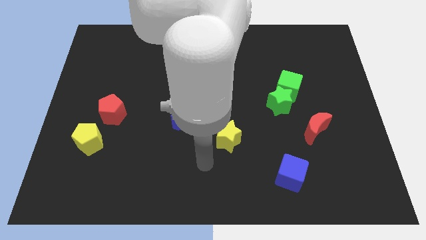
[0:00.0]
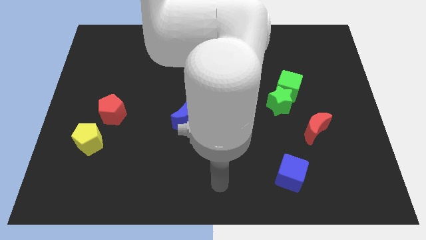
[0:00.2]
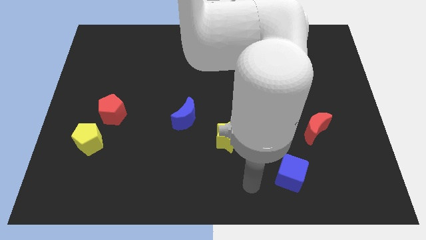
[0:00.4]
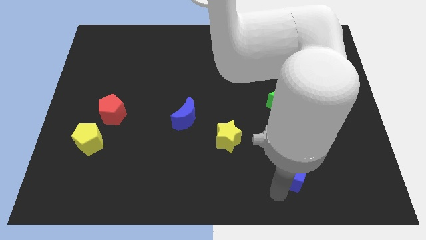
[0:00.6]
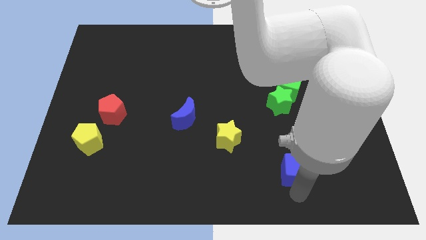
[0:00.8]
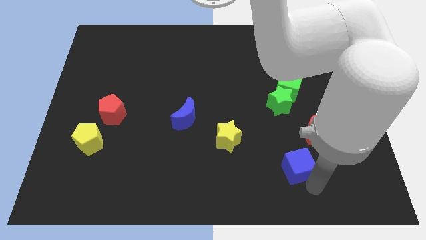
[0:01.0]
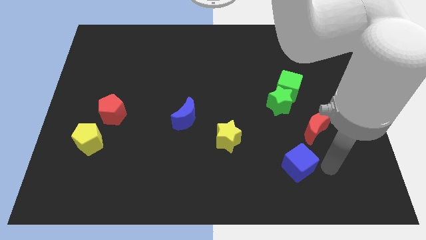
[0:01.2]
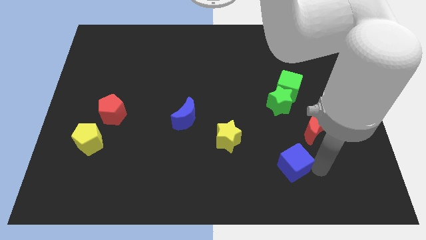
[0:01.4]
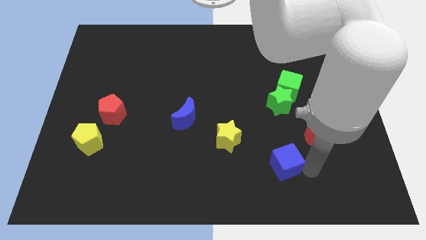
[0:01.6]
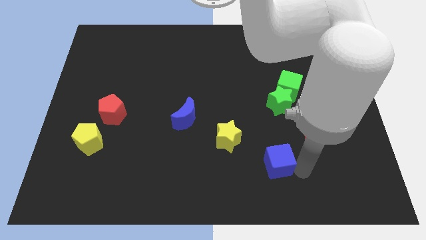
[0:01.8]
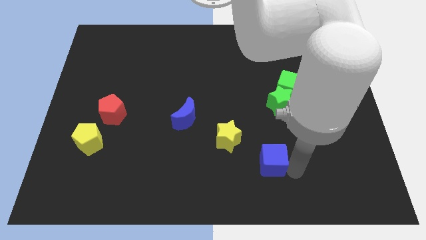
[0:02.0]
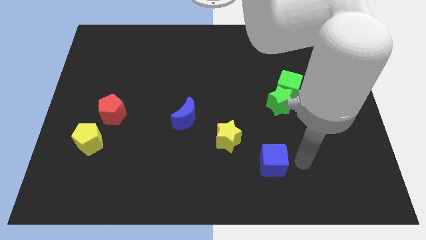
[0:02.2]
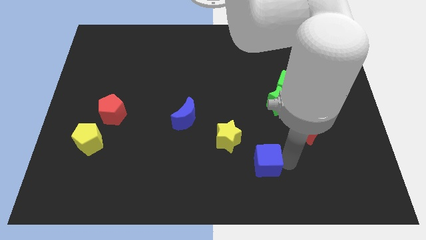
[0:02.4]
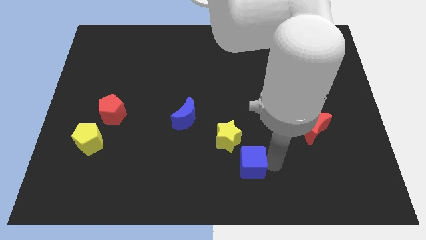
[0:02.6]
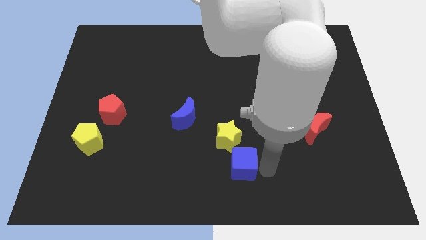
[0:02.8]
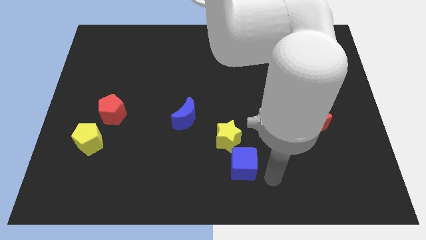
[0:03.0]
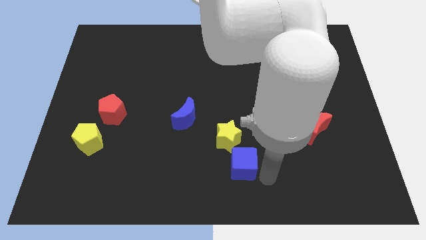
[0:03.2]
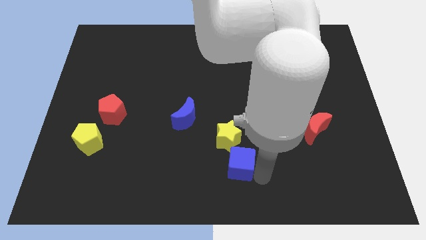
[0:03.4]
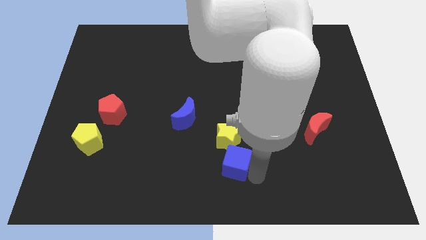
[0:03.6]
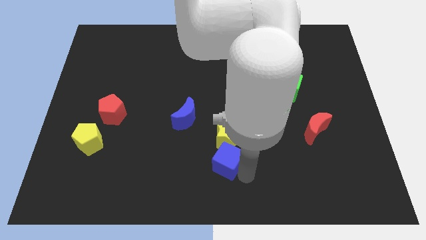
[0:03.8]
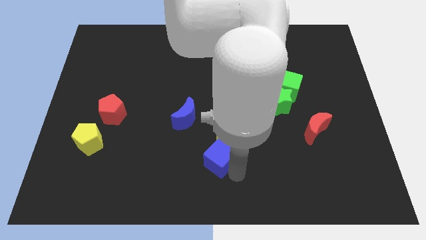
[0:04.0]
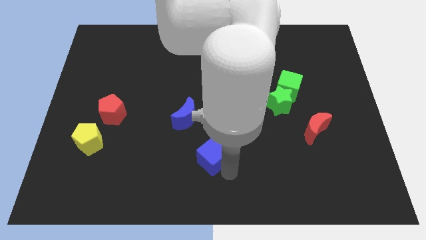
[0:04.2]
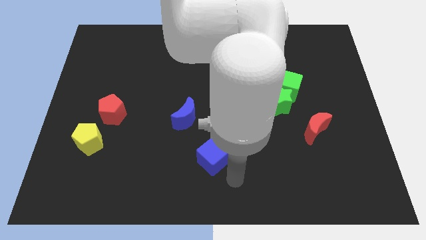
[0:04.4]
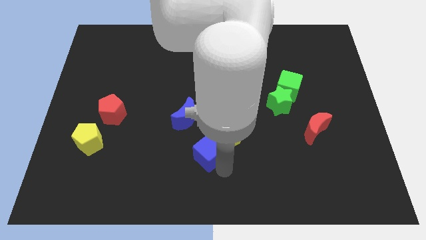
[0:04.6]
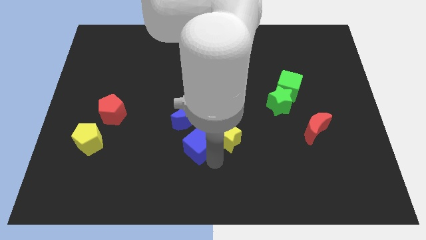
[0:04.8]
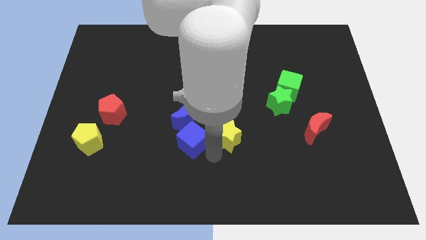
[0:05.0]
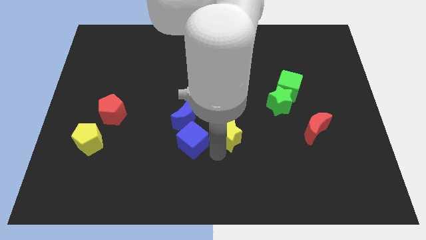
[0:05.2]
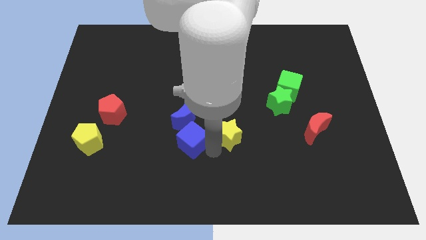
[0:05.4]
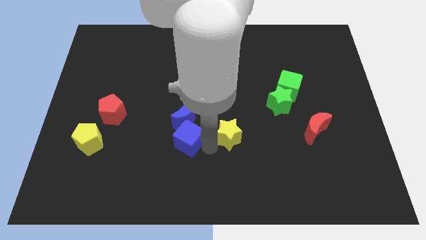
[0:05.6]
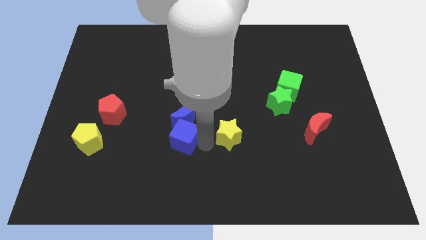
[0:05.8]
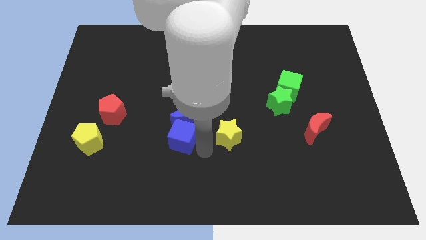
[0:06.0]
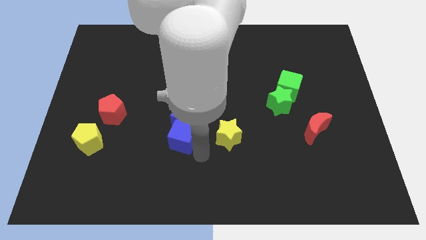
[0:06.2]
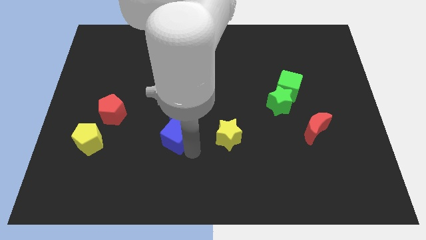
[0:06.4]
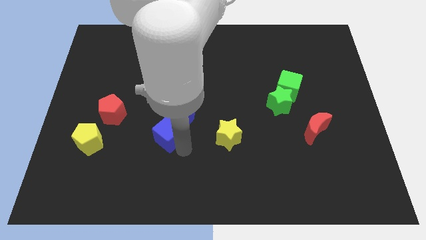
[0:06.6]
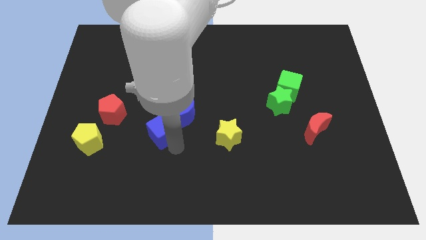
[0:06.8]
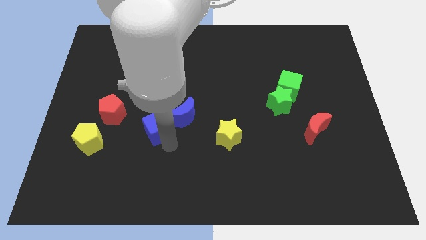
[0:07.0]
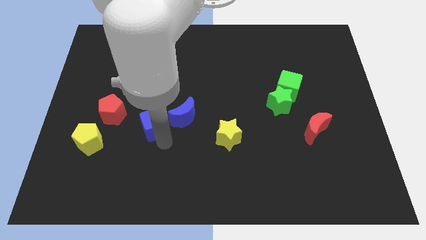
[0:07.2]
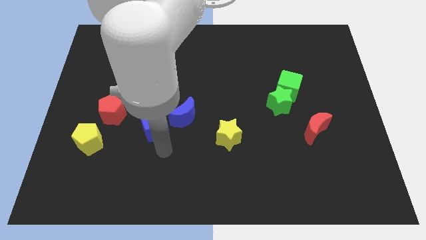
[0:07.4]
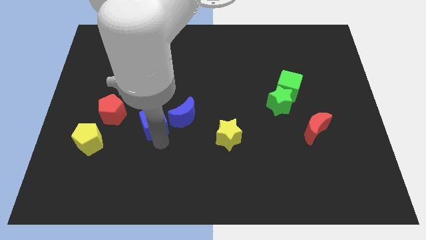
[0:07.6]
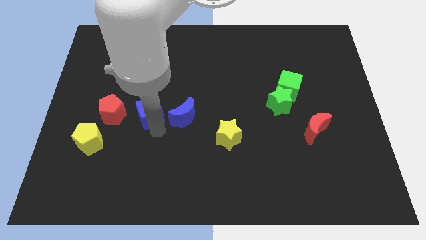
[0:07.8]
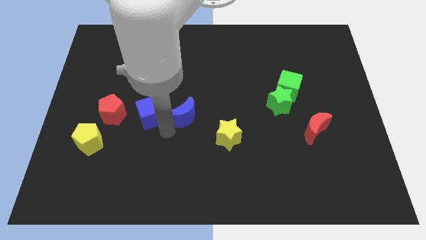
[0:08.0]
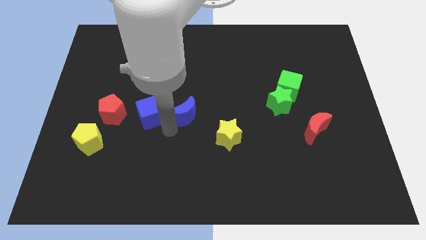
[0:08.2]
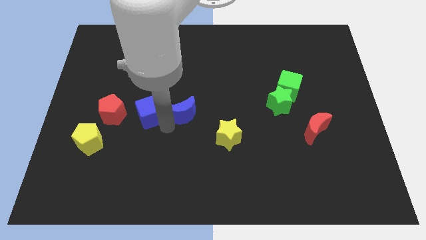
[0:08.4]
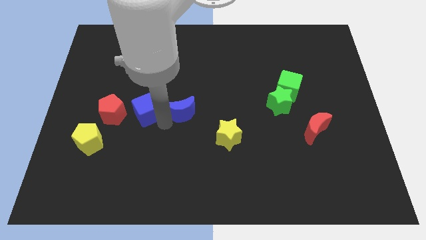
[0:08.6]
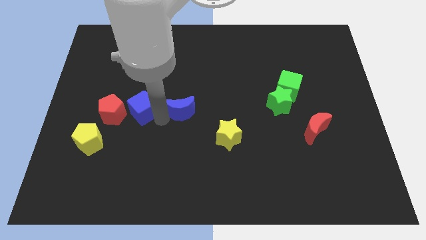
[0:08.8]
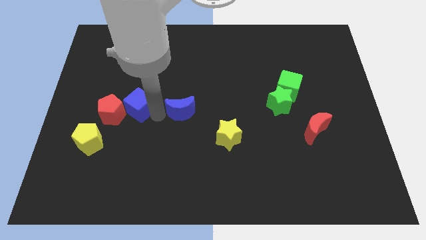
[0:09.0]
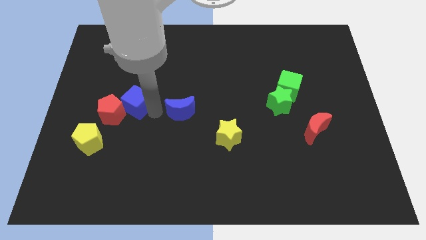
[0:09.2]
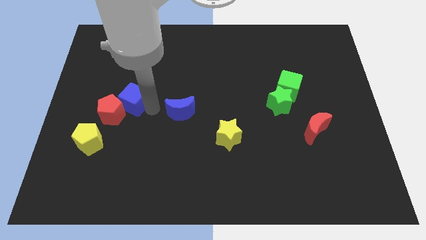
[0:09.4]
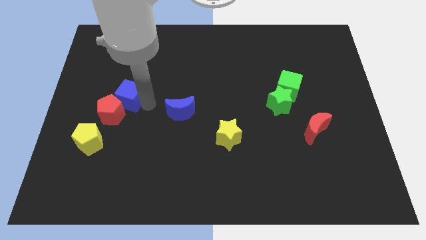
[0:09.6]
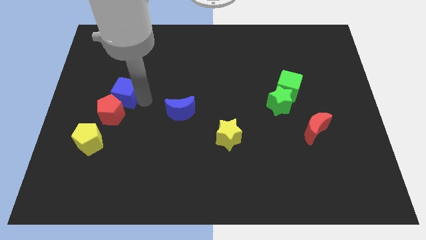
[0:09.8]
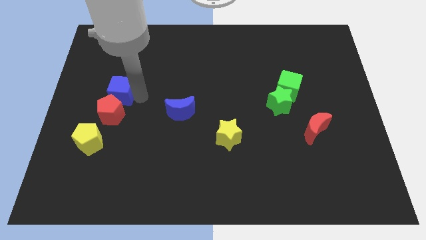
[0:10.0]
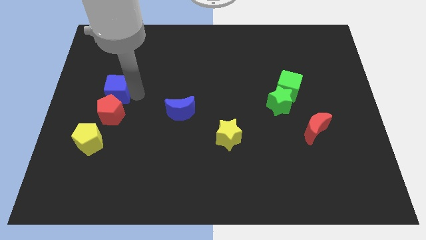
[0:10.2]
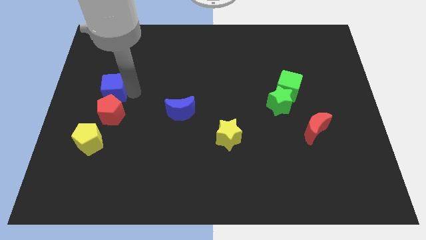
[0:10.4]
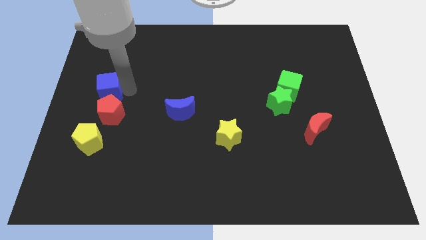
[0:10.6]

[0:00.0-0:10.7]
slide the blue cube to the center left

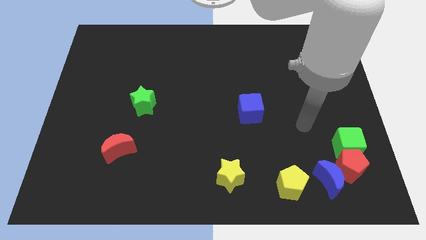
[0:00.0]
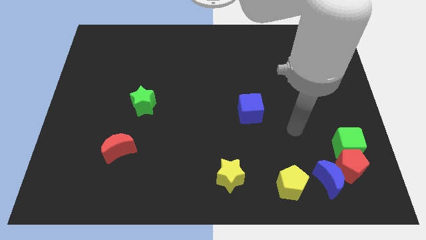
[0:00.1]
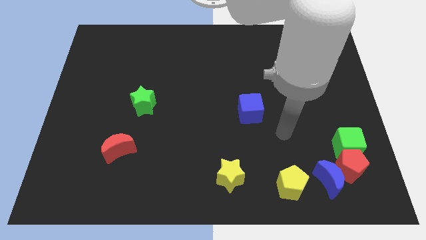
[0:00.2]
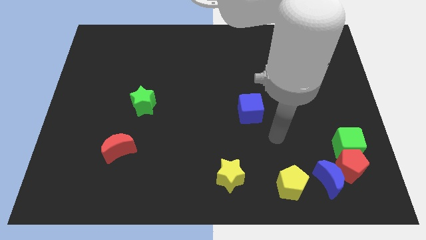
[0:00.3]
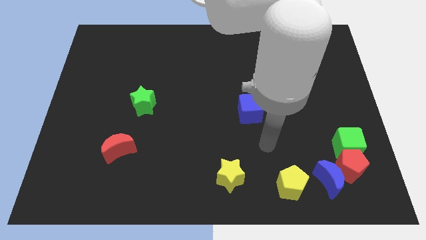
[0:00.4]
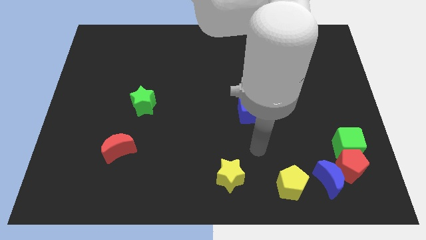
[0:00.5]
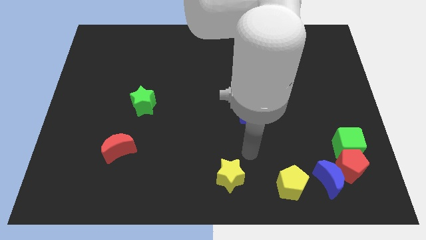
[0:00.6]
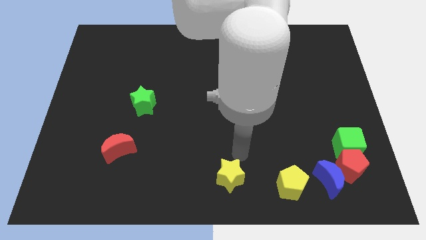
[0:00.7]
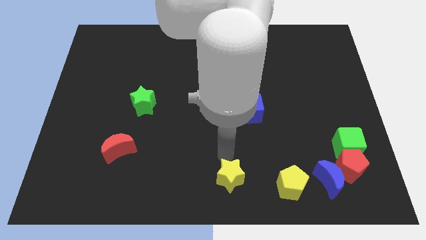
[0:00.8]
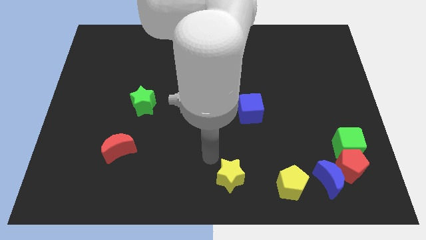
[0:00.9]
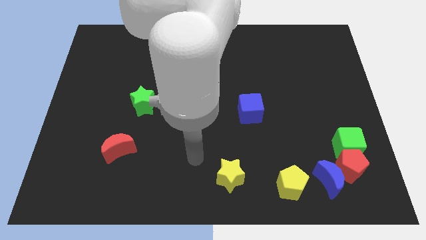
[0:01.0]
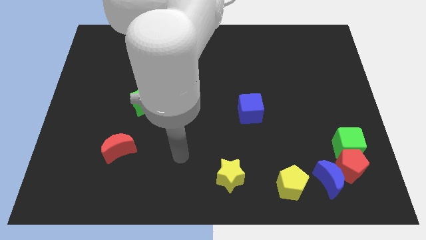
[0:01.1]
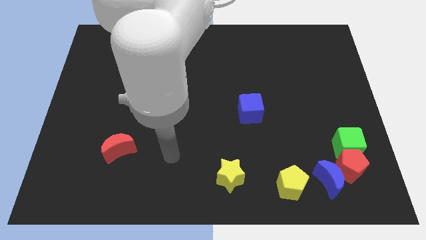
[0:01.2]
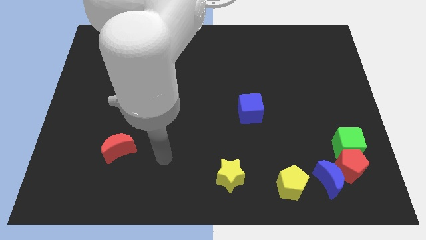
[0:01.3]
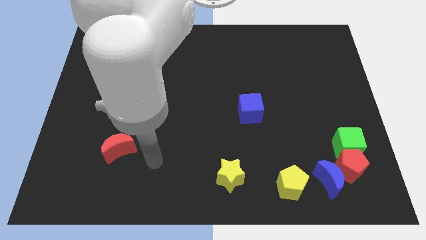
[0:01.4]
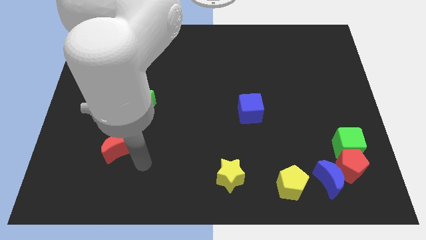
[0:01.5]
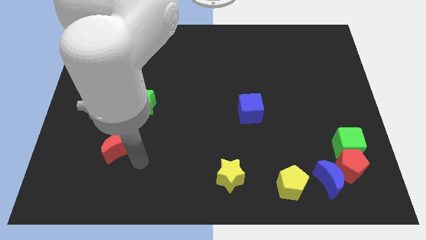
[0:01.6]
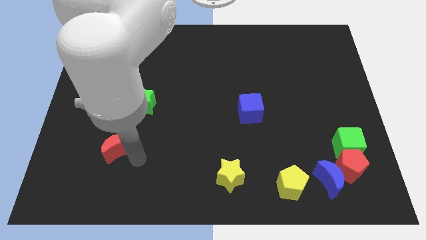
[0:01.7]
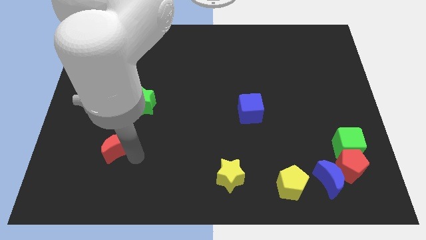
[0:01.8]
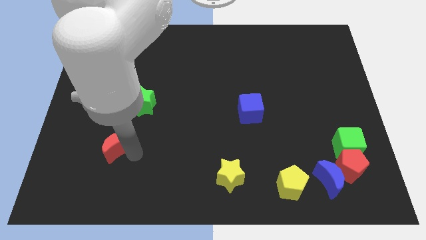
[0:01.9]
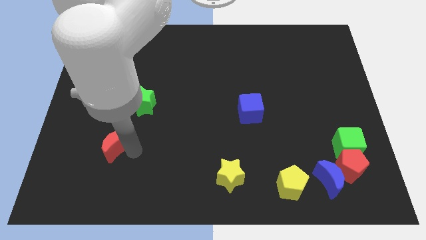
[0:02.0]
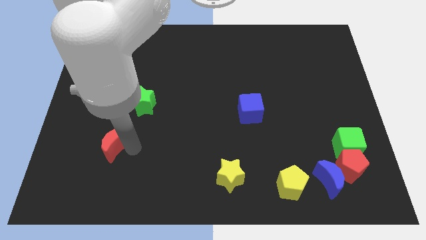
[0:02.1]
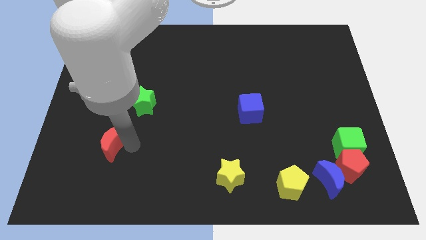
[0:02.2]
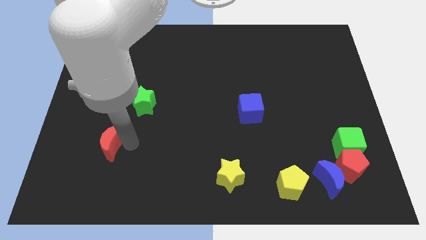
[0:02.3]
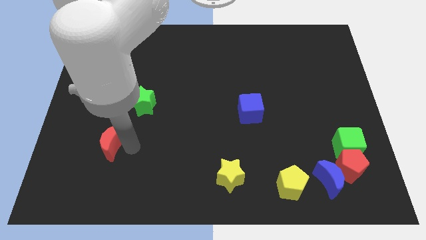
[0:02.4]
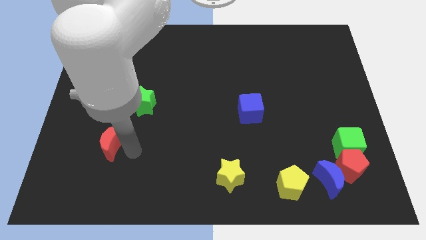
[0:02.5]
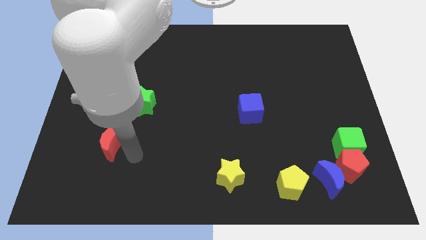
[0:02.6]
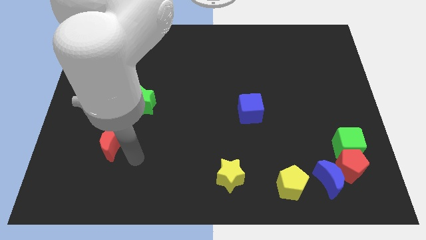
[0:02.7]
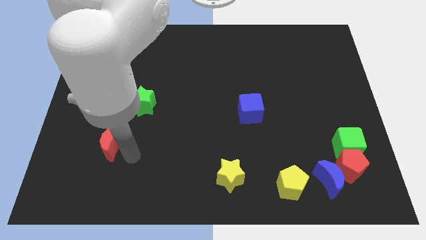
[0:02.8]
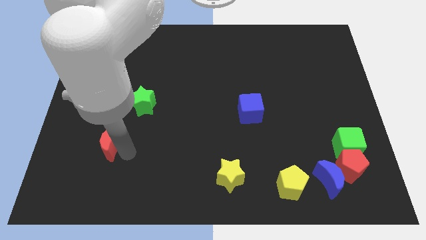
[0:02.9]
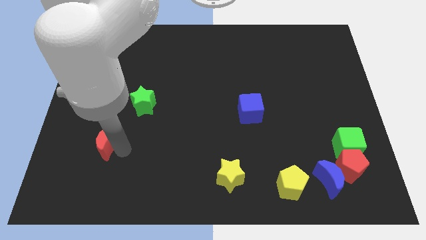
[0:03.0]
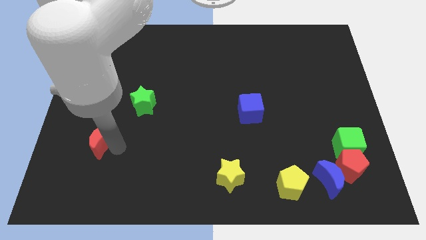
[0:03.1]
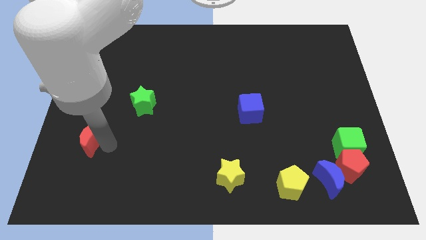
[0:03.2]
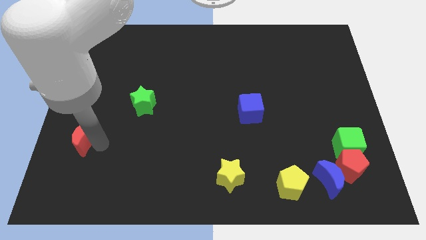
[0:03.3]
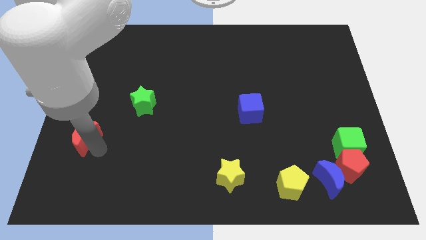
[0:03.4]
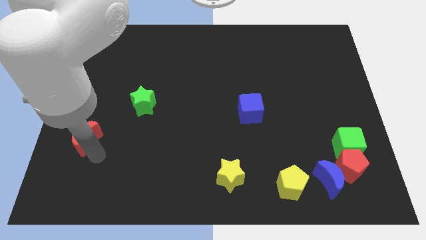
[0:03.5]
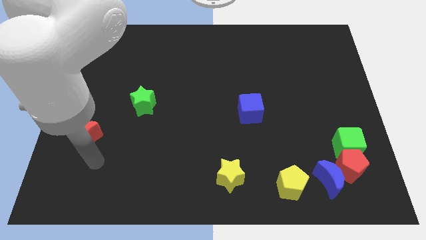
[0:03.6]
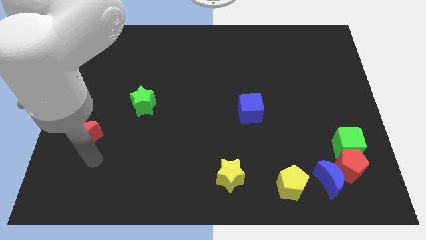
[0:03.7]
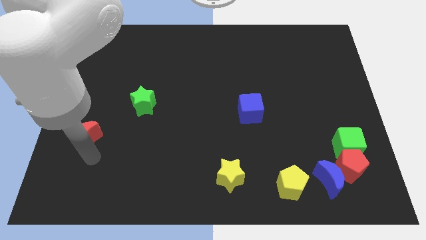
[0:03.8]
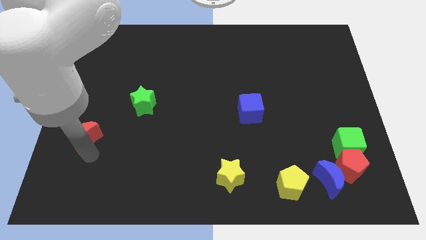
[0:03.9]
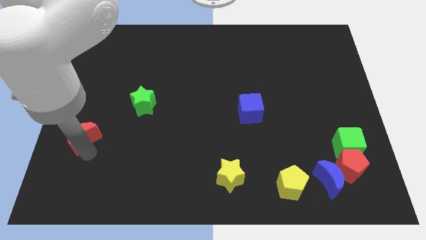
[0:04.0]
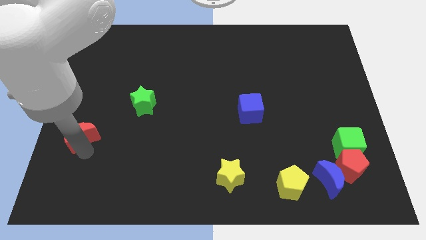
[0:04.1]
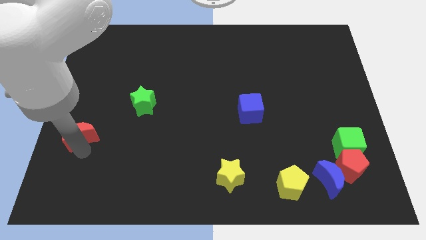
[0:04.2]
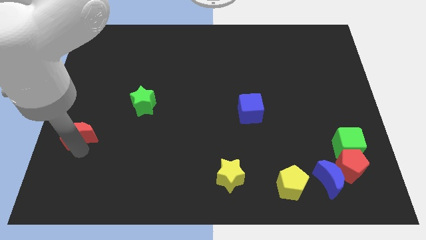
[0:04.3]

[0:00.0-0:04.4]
push the red moon to the center left
